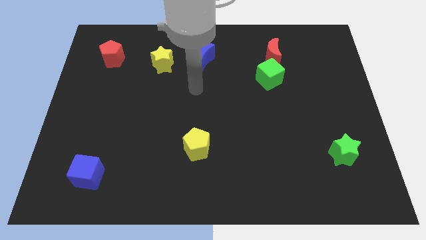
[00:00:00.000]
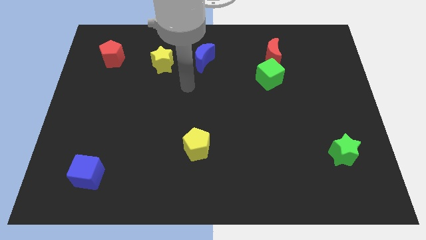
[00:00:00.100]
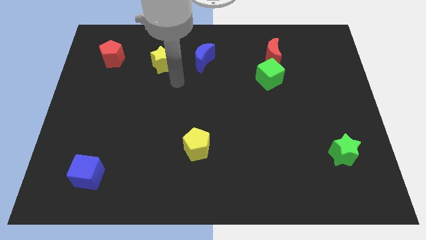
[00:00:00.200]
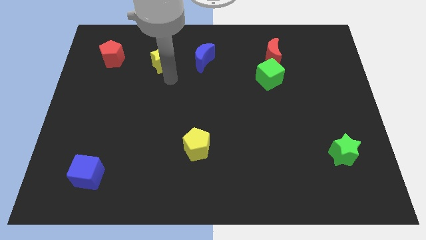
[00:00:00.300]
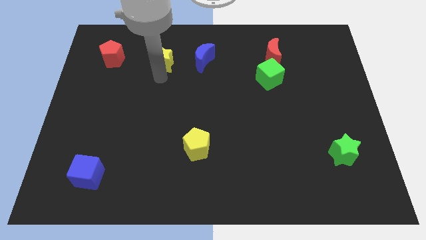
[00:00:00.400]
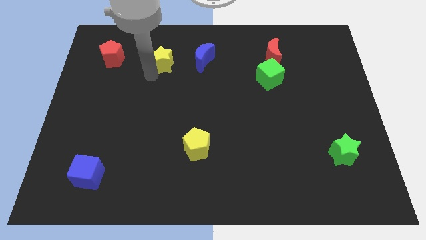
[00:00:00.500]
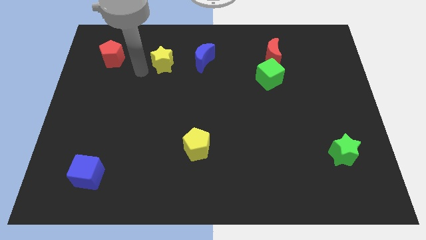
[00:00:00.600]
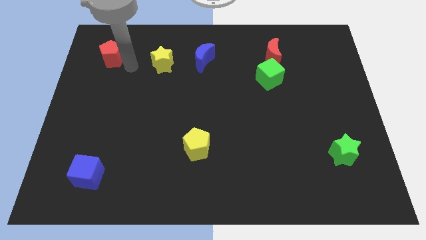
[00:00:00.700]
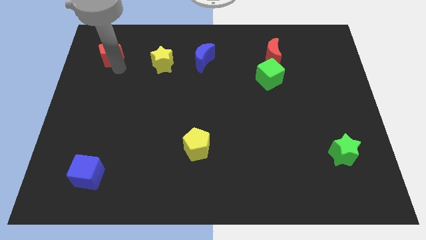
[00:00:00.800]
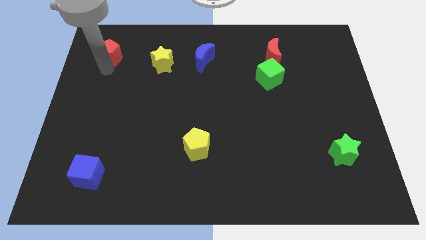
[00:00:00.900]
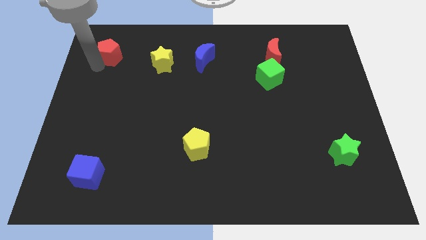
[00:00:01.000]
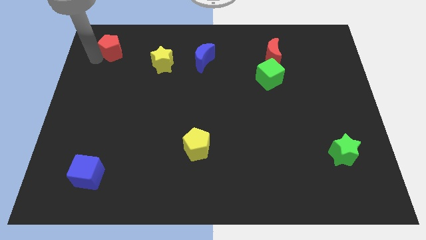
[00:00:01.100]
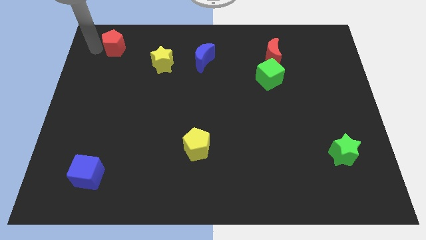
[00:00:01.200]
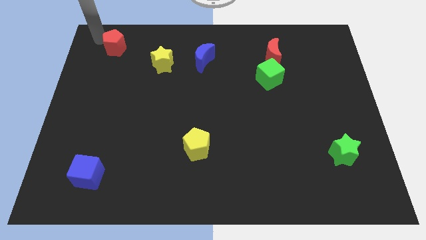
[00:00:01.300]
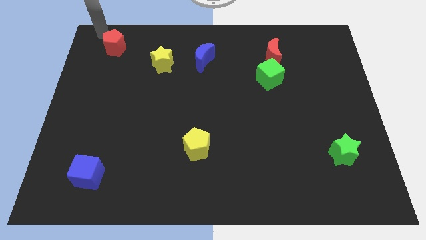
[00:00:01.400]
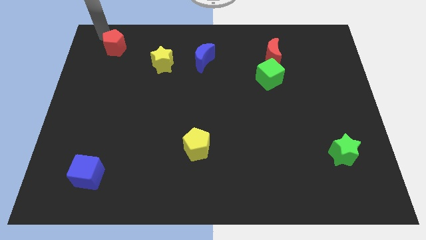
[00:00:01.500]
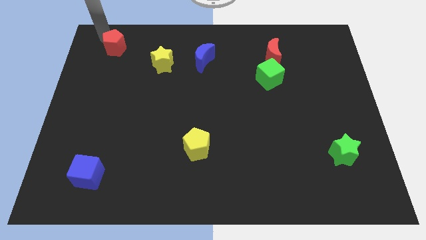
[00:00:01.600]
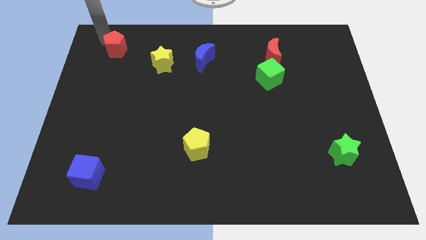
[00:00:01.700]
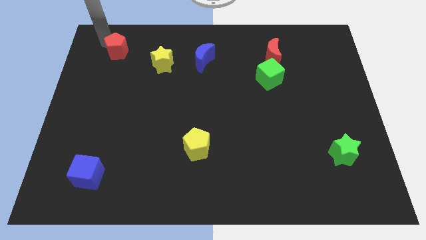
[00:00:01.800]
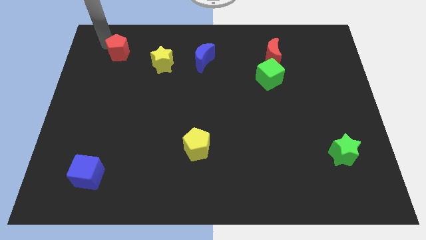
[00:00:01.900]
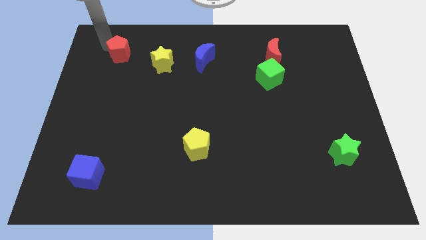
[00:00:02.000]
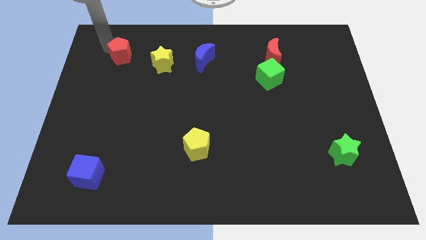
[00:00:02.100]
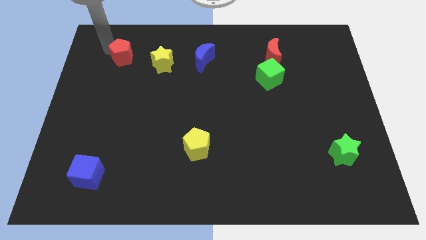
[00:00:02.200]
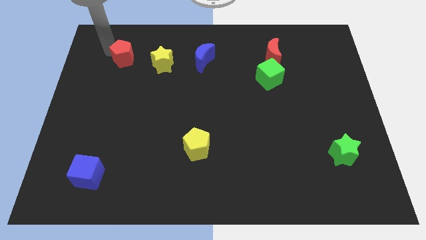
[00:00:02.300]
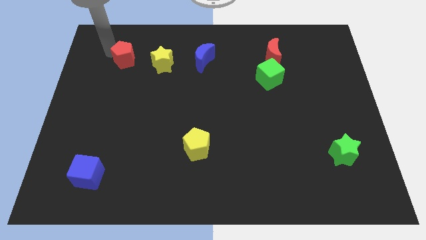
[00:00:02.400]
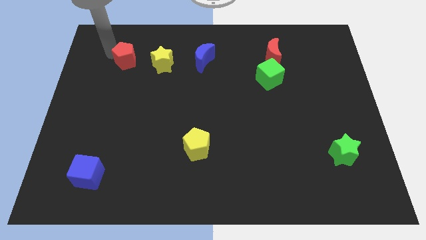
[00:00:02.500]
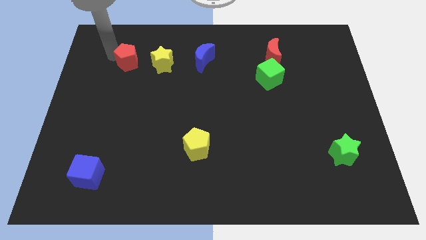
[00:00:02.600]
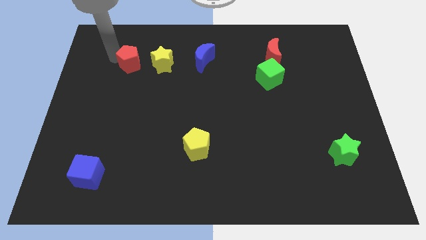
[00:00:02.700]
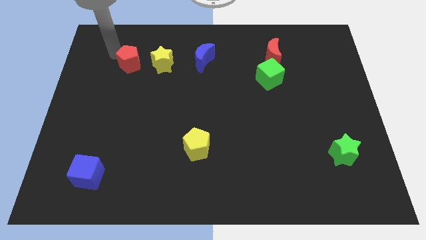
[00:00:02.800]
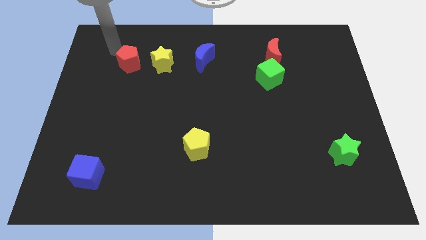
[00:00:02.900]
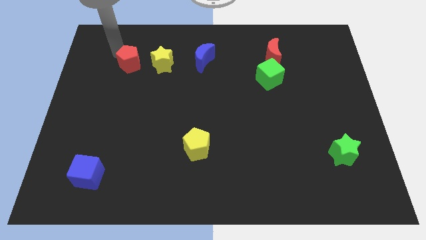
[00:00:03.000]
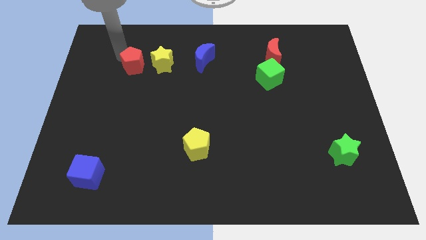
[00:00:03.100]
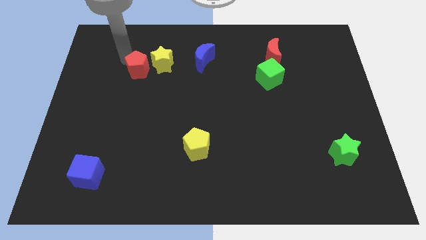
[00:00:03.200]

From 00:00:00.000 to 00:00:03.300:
slightly slide the red pentagon down and then right

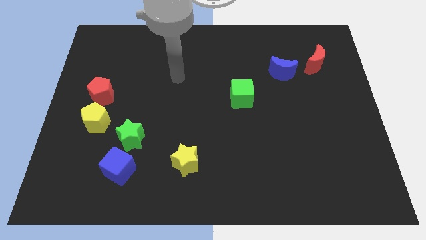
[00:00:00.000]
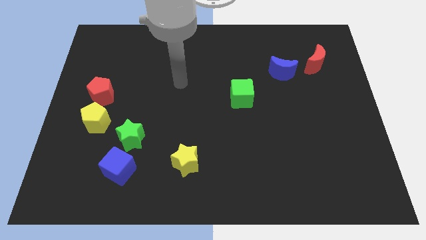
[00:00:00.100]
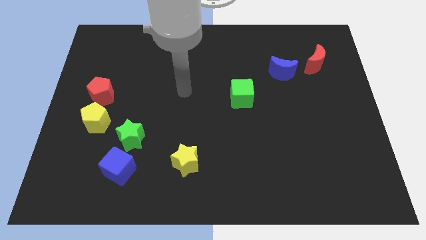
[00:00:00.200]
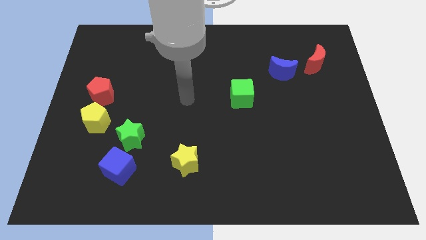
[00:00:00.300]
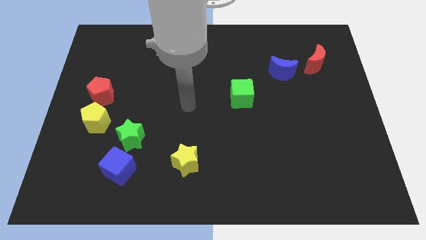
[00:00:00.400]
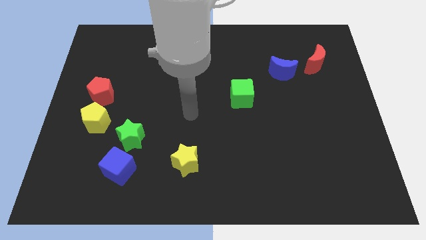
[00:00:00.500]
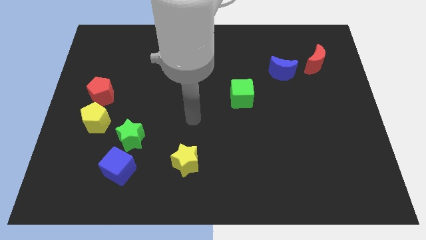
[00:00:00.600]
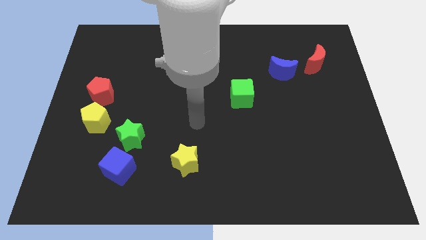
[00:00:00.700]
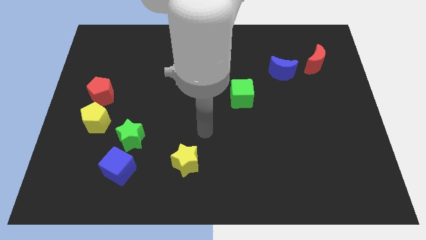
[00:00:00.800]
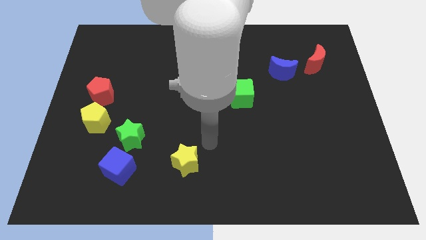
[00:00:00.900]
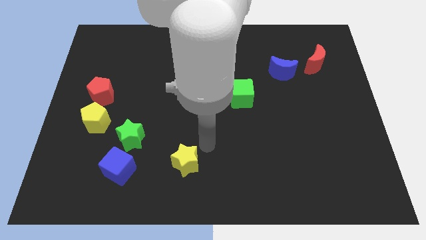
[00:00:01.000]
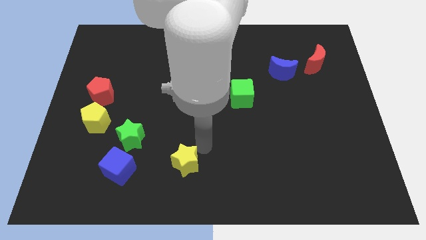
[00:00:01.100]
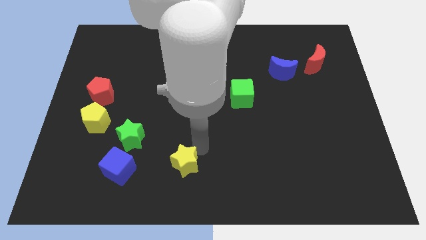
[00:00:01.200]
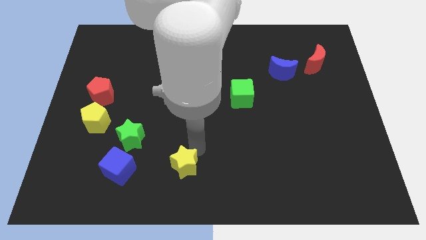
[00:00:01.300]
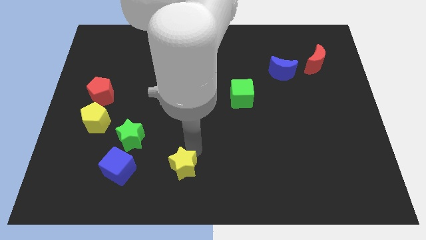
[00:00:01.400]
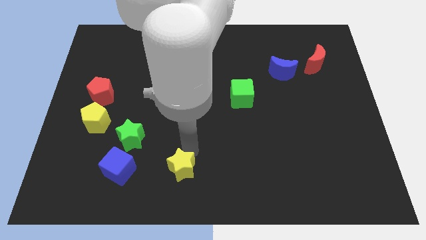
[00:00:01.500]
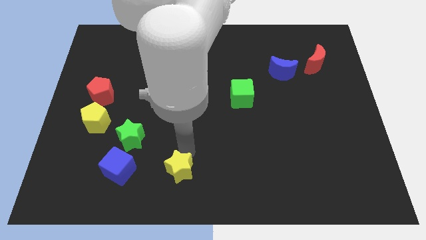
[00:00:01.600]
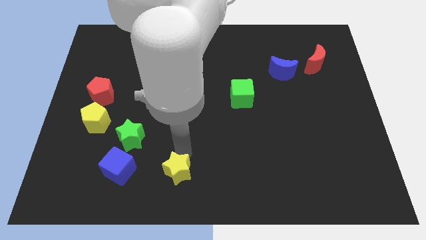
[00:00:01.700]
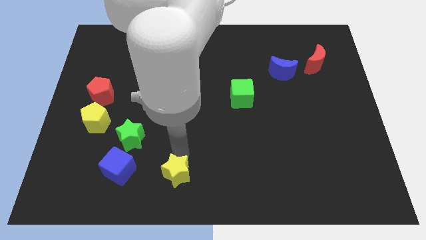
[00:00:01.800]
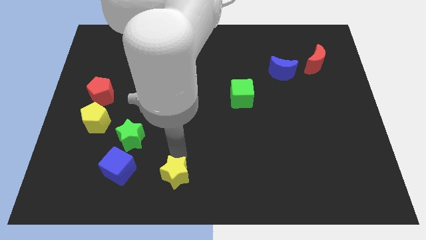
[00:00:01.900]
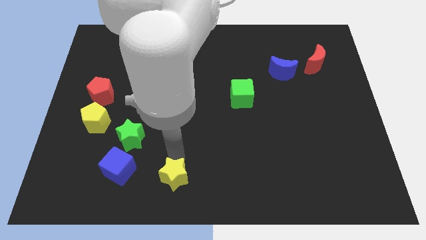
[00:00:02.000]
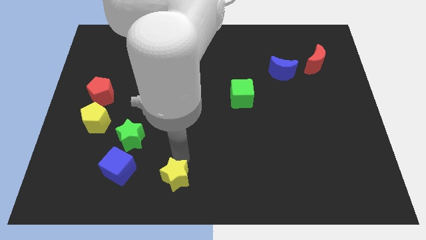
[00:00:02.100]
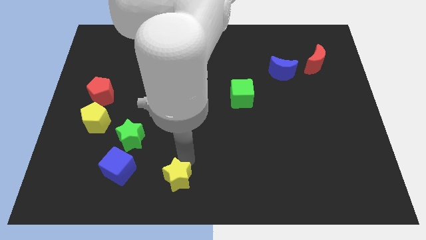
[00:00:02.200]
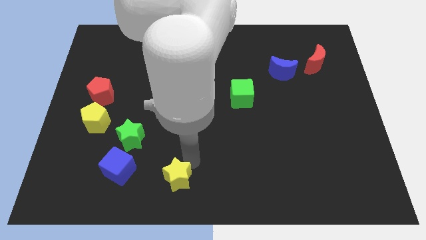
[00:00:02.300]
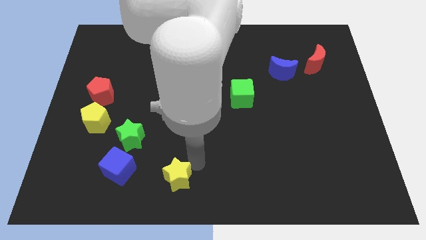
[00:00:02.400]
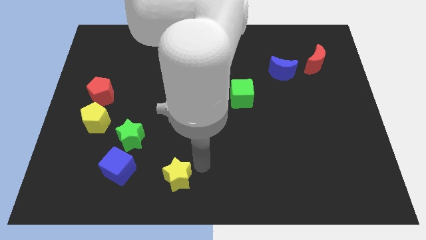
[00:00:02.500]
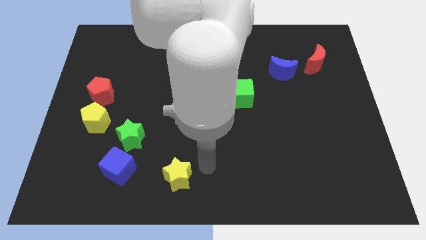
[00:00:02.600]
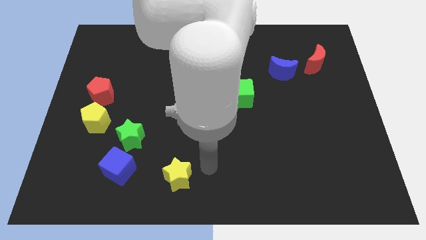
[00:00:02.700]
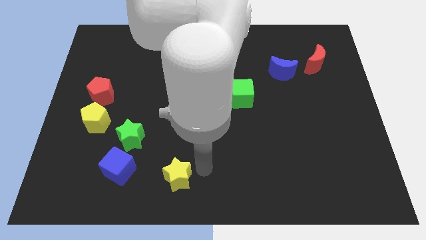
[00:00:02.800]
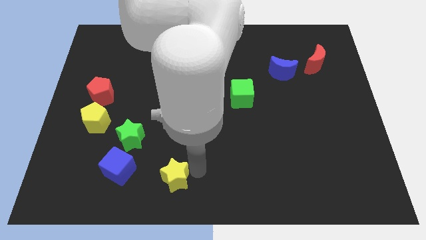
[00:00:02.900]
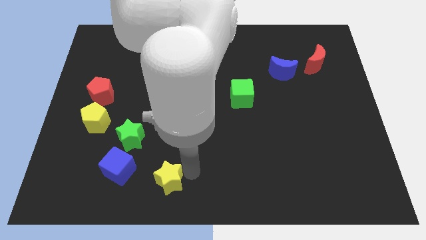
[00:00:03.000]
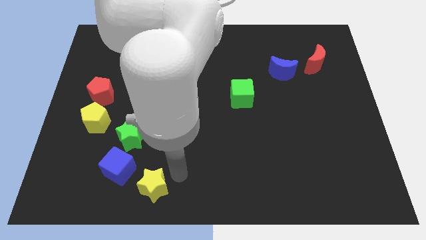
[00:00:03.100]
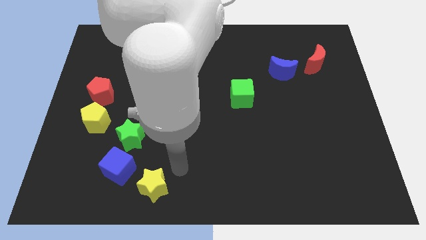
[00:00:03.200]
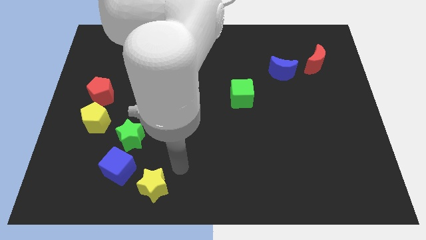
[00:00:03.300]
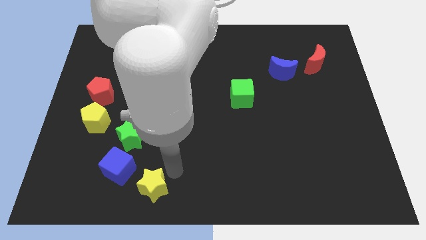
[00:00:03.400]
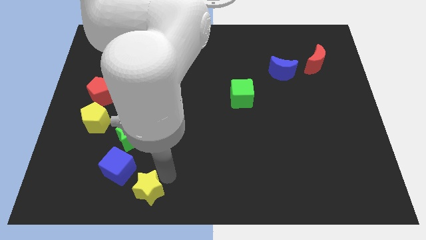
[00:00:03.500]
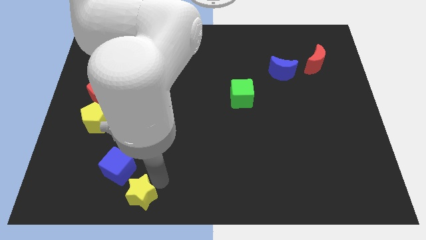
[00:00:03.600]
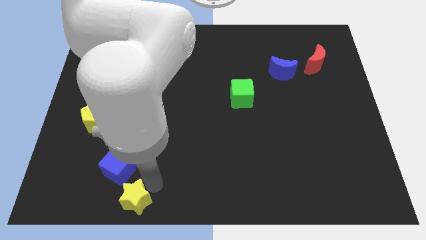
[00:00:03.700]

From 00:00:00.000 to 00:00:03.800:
push the yellow star slightly to the left

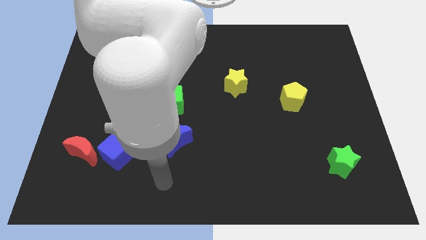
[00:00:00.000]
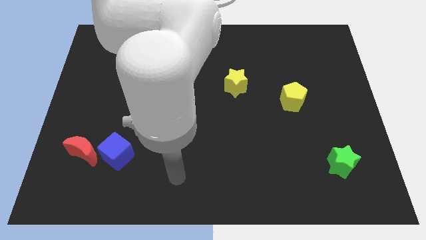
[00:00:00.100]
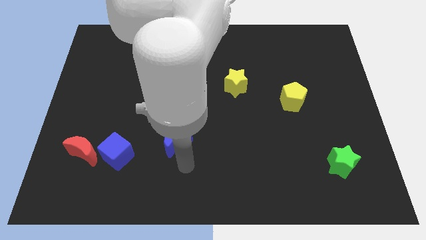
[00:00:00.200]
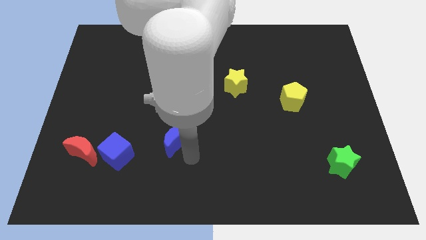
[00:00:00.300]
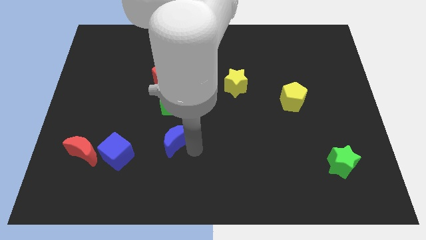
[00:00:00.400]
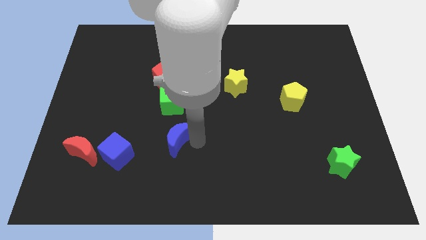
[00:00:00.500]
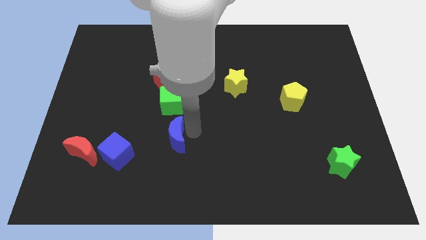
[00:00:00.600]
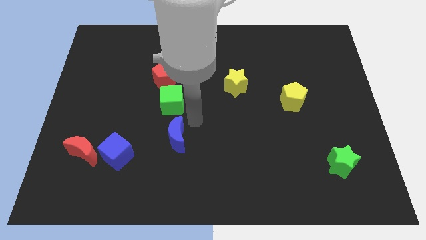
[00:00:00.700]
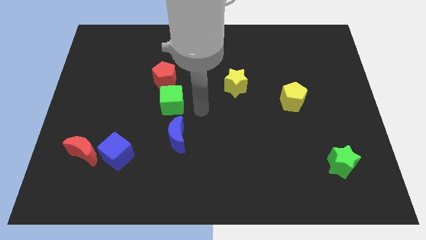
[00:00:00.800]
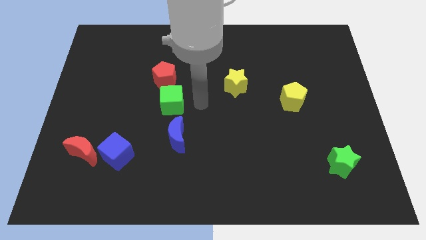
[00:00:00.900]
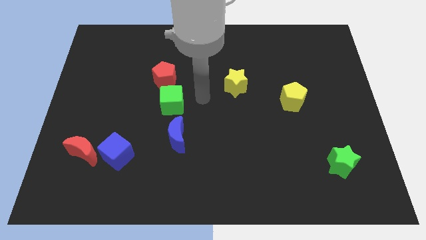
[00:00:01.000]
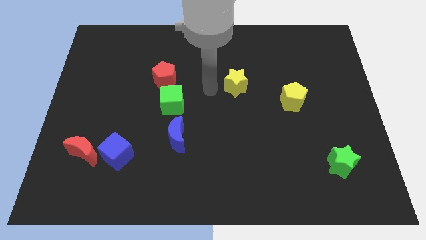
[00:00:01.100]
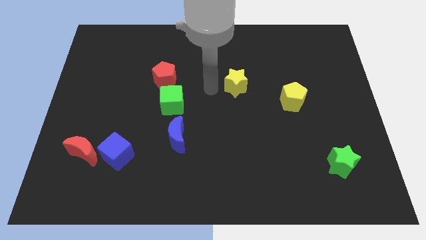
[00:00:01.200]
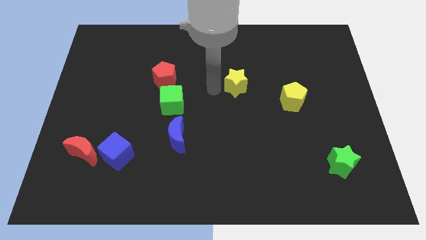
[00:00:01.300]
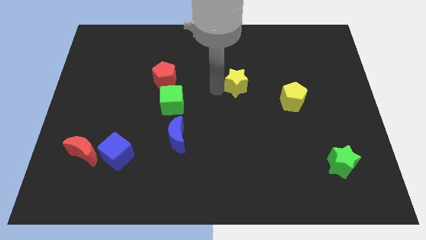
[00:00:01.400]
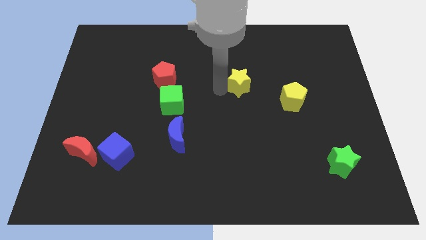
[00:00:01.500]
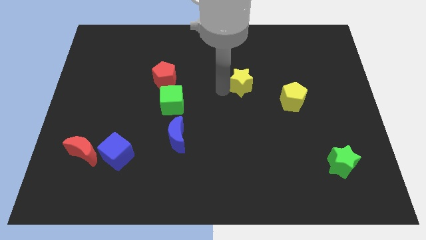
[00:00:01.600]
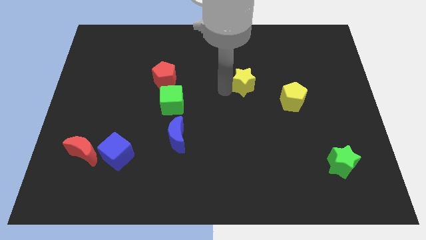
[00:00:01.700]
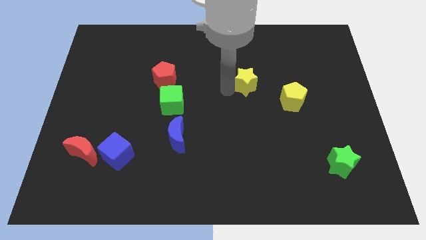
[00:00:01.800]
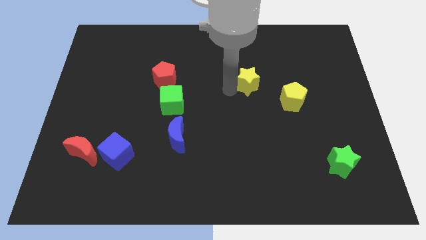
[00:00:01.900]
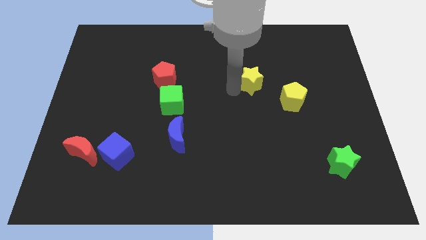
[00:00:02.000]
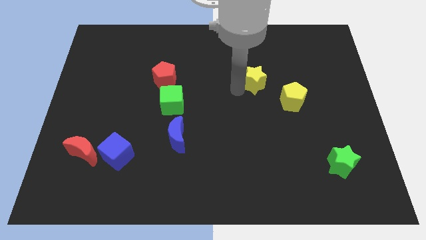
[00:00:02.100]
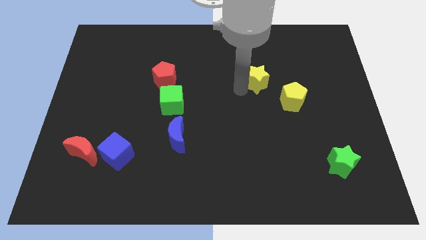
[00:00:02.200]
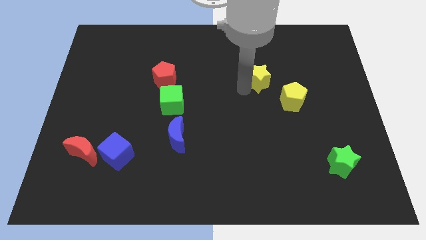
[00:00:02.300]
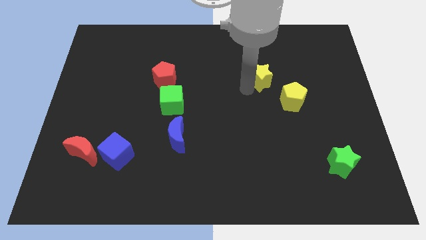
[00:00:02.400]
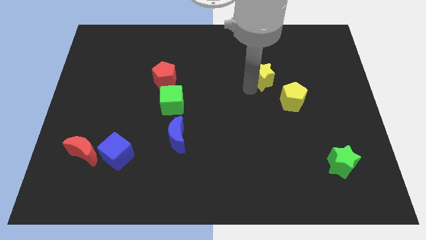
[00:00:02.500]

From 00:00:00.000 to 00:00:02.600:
slightly push the yellow star to the right
